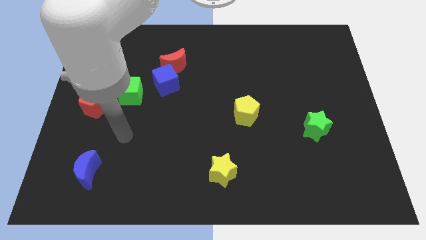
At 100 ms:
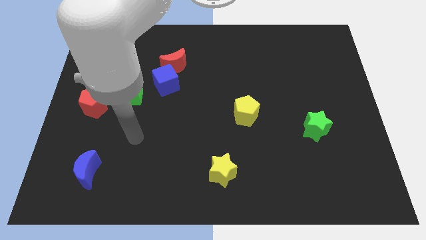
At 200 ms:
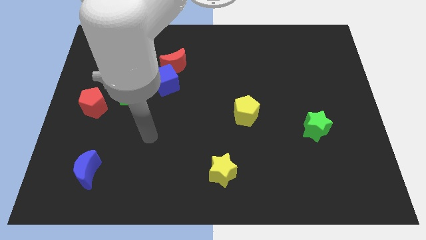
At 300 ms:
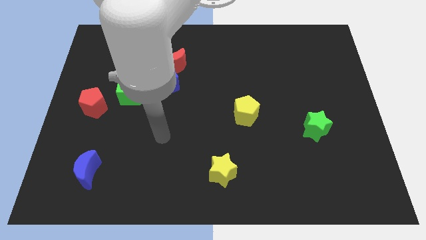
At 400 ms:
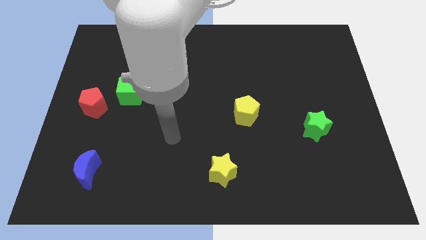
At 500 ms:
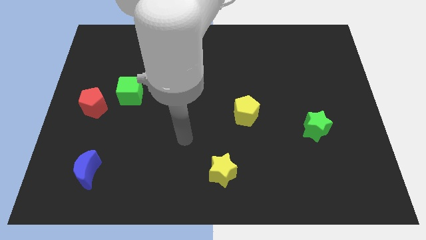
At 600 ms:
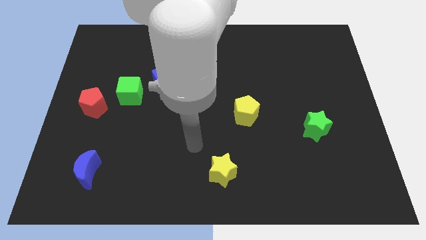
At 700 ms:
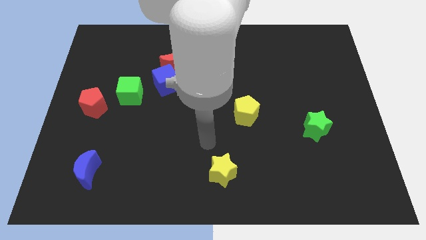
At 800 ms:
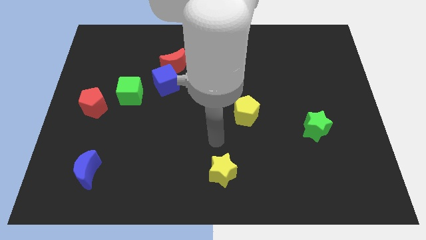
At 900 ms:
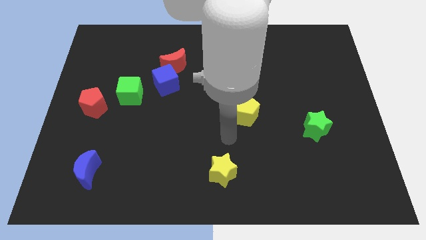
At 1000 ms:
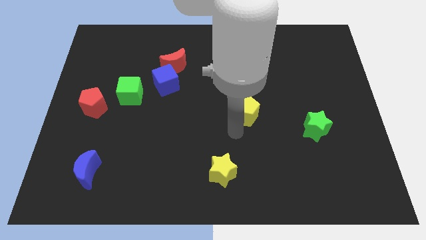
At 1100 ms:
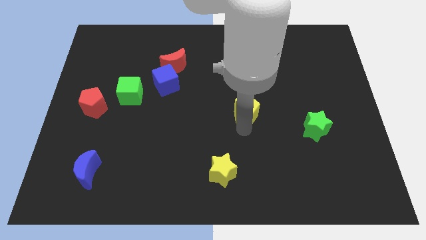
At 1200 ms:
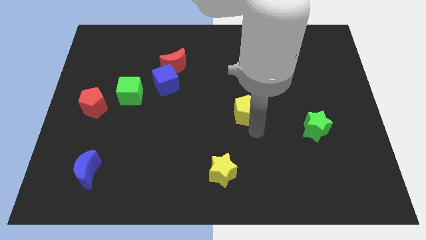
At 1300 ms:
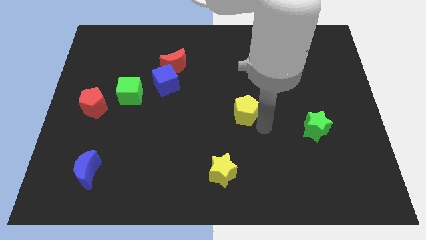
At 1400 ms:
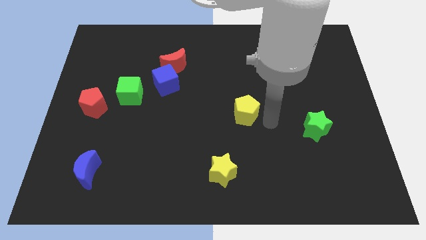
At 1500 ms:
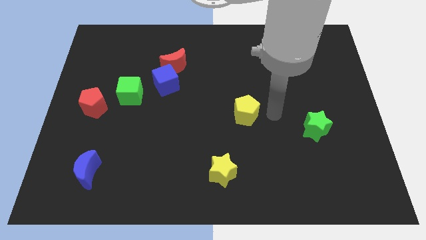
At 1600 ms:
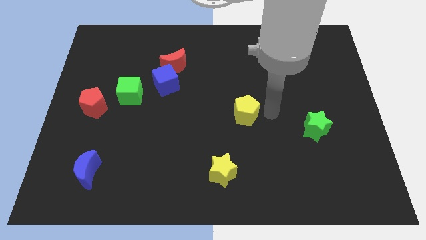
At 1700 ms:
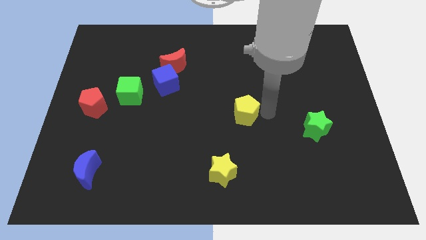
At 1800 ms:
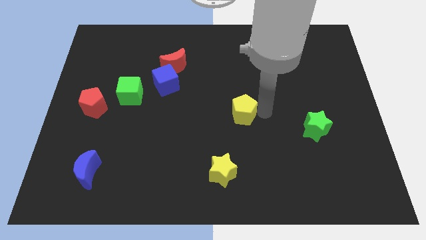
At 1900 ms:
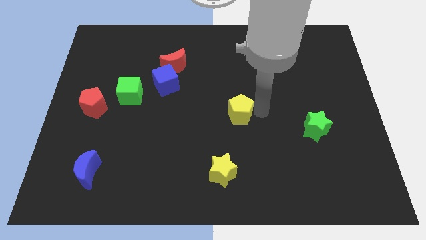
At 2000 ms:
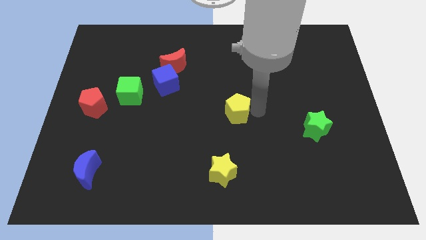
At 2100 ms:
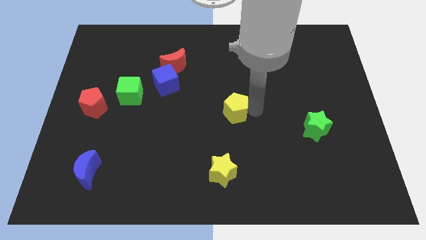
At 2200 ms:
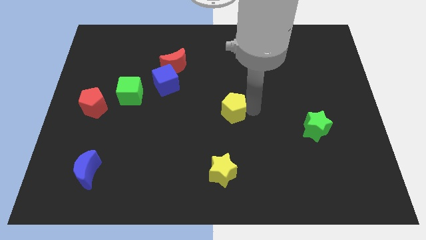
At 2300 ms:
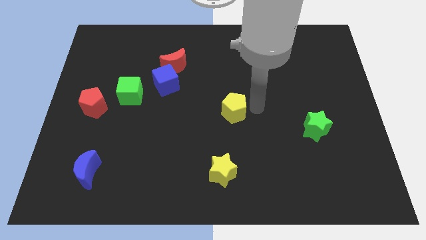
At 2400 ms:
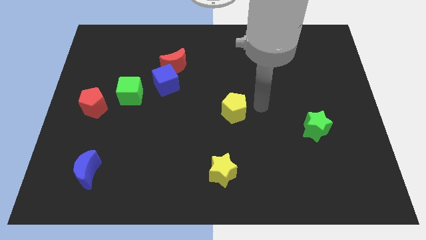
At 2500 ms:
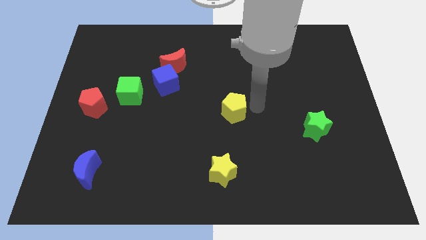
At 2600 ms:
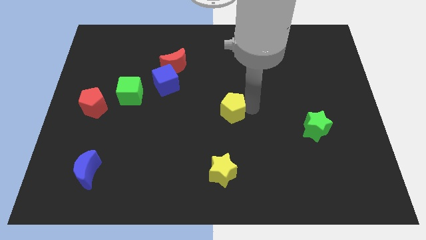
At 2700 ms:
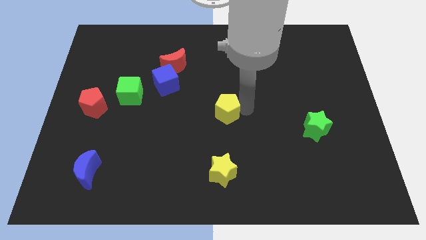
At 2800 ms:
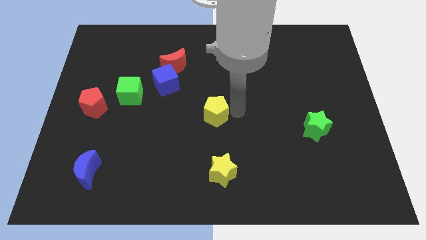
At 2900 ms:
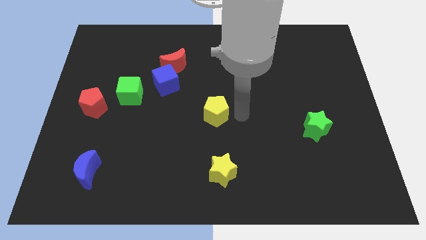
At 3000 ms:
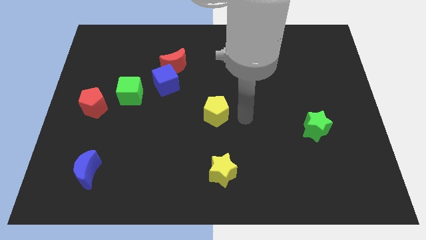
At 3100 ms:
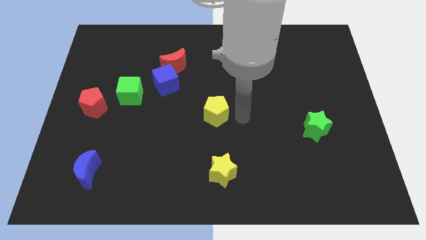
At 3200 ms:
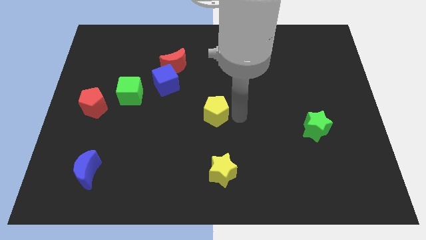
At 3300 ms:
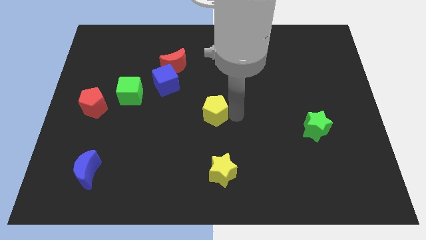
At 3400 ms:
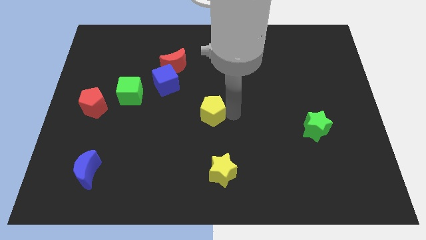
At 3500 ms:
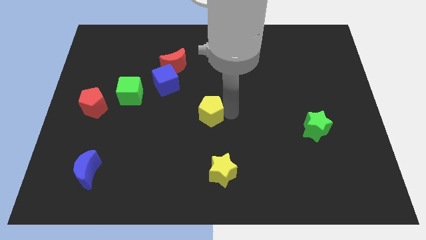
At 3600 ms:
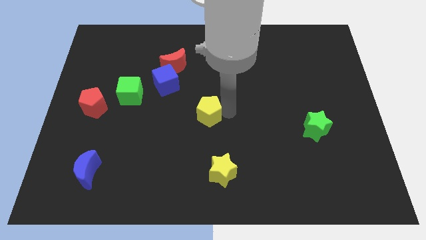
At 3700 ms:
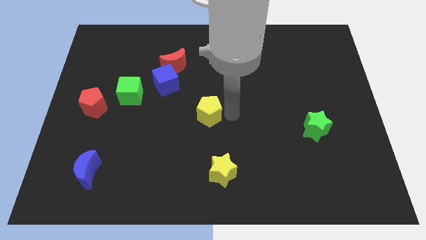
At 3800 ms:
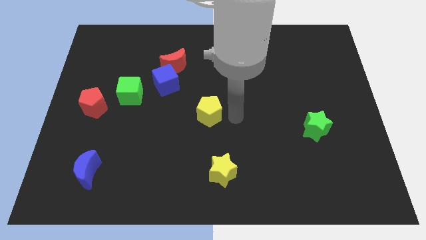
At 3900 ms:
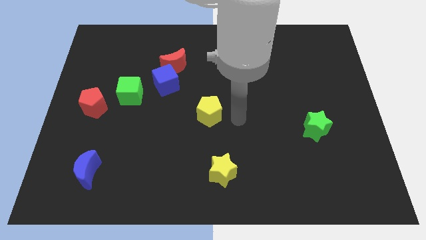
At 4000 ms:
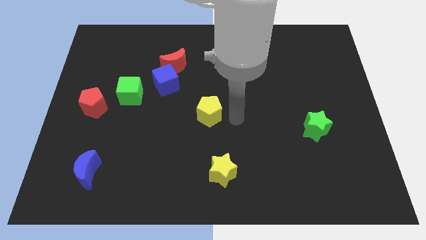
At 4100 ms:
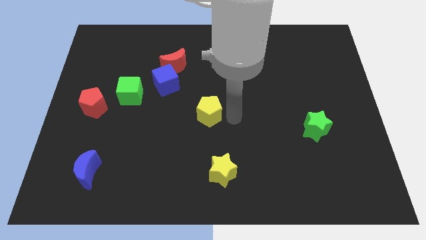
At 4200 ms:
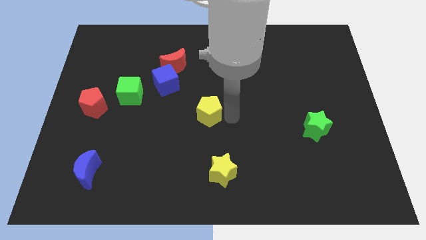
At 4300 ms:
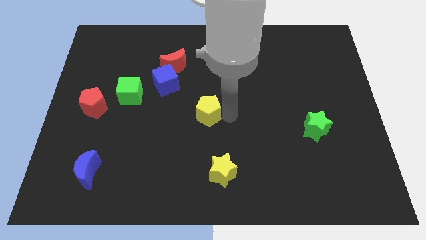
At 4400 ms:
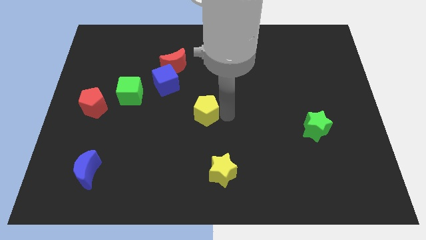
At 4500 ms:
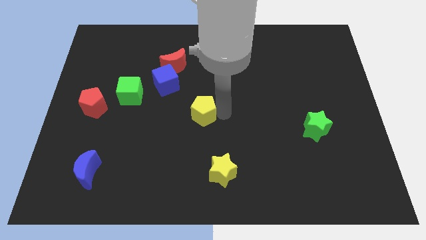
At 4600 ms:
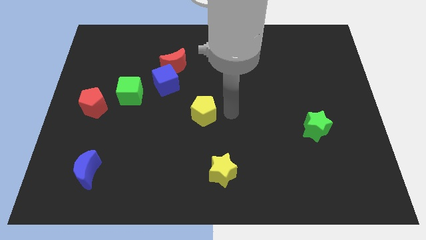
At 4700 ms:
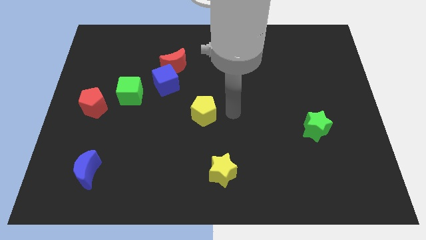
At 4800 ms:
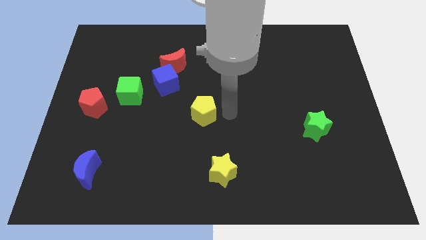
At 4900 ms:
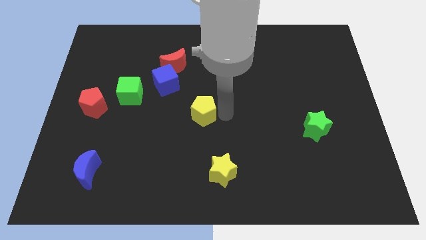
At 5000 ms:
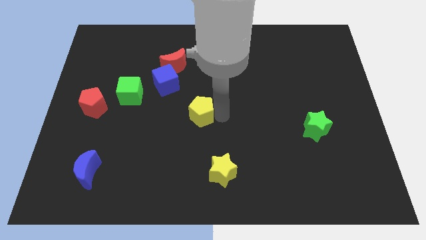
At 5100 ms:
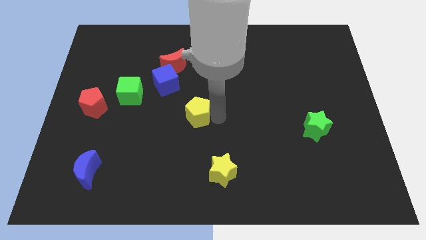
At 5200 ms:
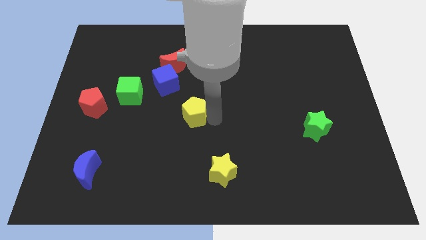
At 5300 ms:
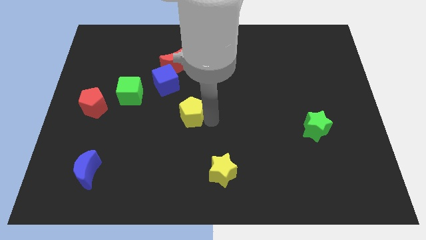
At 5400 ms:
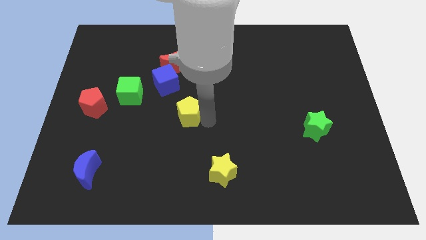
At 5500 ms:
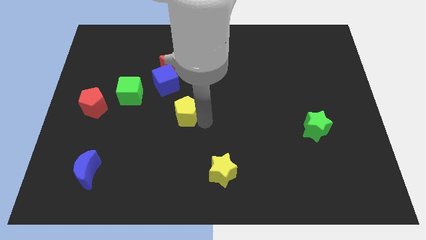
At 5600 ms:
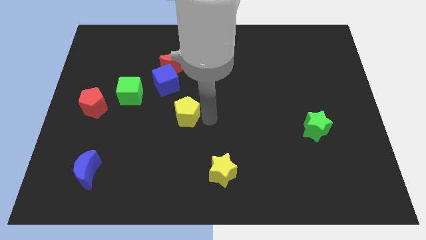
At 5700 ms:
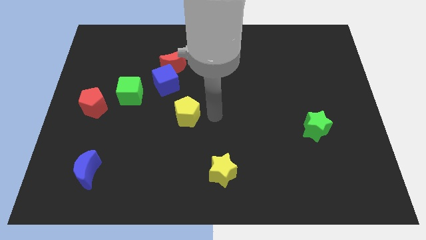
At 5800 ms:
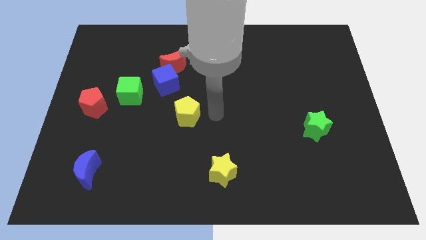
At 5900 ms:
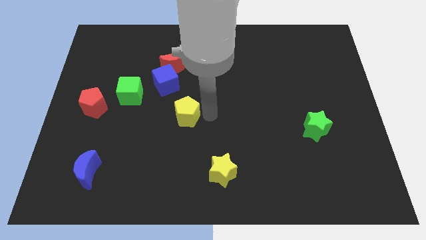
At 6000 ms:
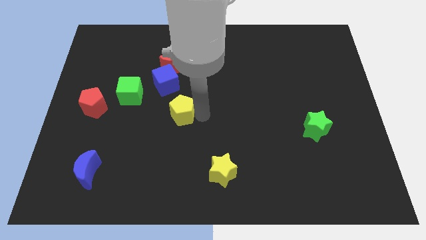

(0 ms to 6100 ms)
put the yellow pentagon below the blue cube

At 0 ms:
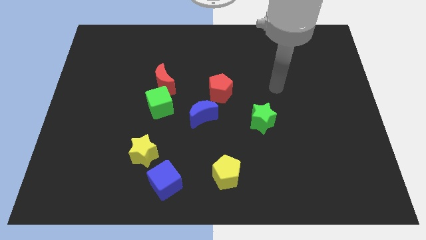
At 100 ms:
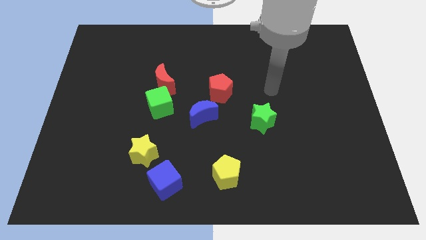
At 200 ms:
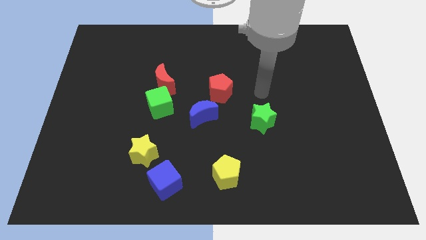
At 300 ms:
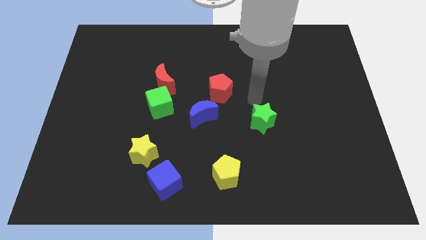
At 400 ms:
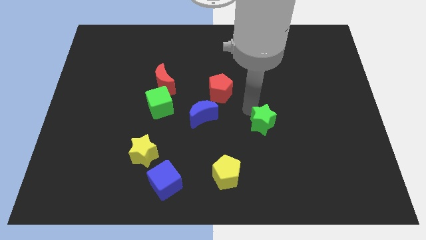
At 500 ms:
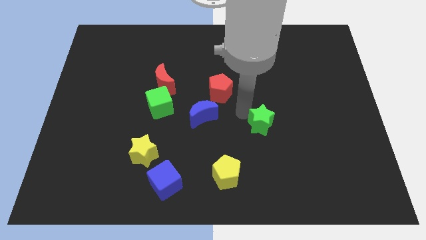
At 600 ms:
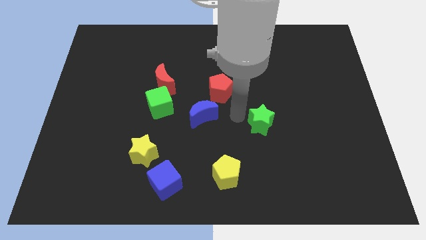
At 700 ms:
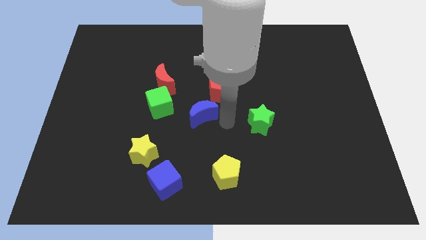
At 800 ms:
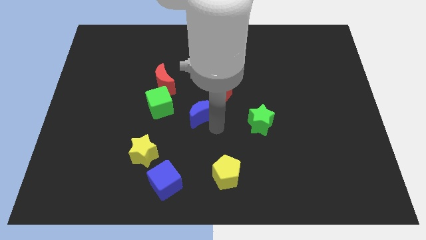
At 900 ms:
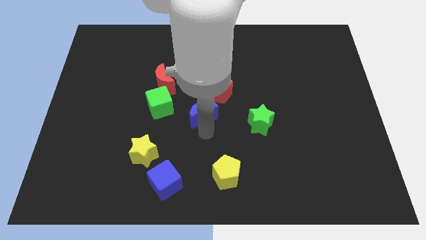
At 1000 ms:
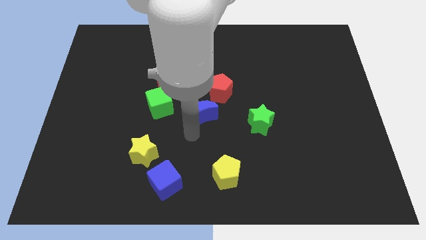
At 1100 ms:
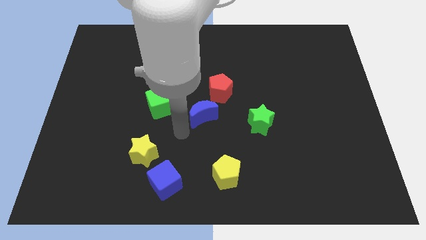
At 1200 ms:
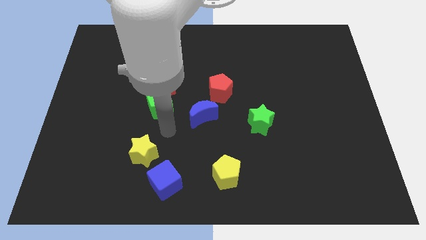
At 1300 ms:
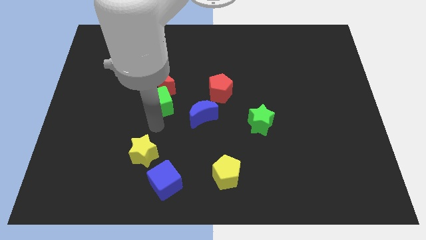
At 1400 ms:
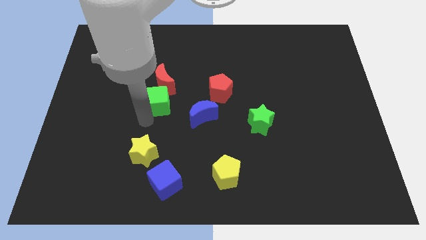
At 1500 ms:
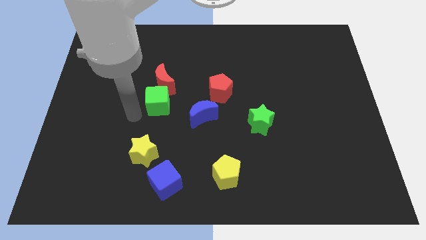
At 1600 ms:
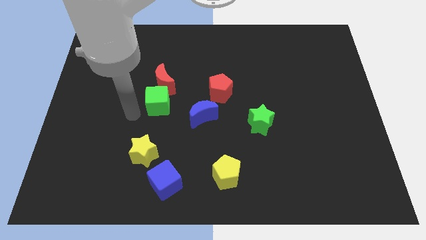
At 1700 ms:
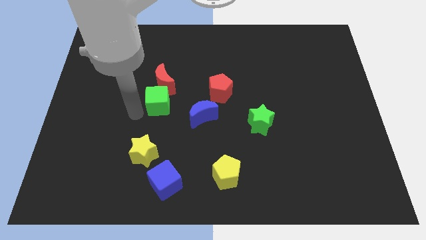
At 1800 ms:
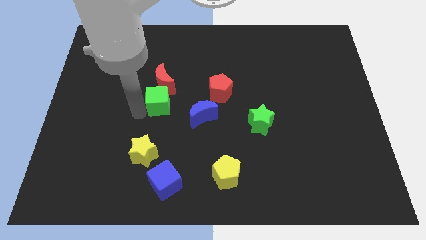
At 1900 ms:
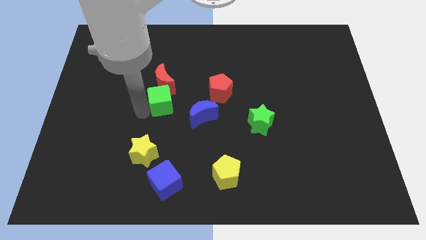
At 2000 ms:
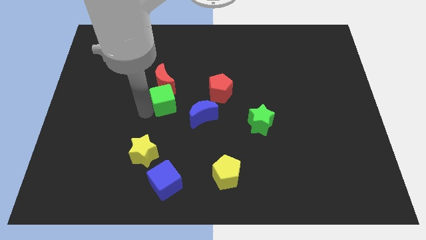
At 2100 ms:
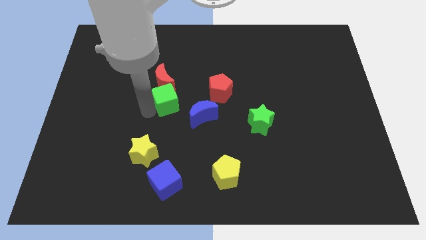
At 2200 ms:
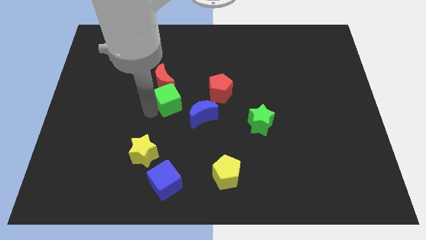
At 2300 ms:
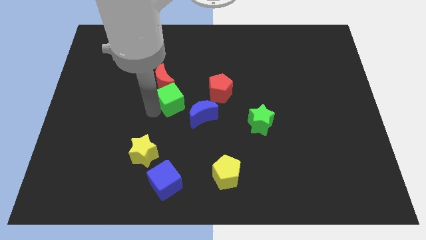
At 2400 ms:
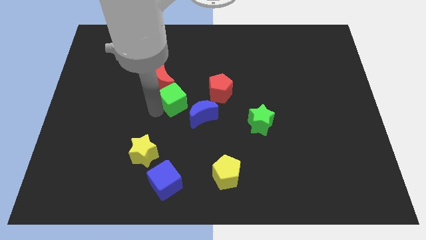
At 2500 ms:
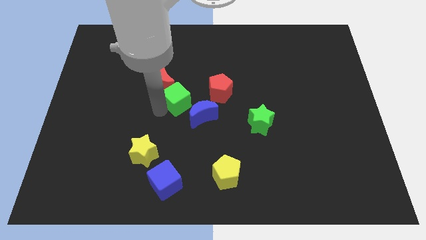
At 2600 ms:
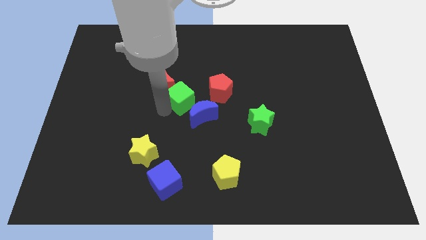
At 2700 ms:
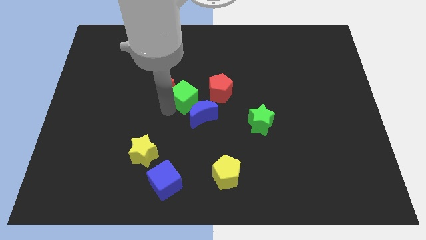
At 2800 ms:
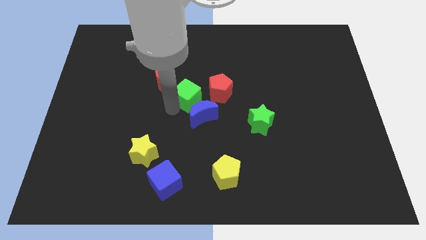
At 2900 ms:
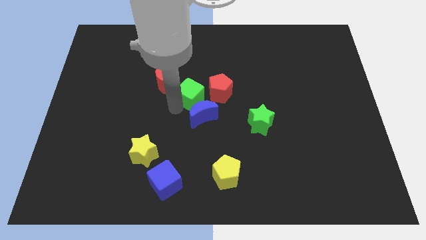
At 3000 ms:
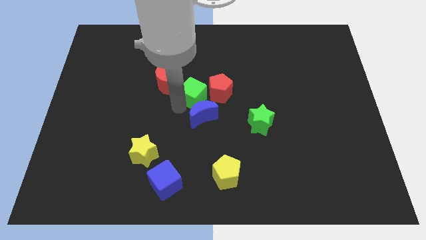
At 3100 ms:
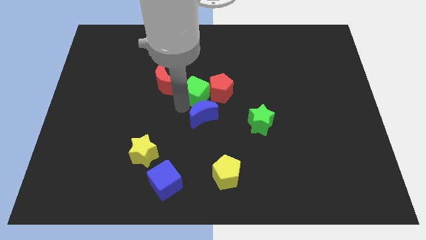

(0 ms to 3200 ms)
move the green cube to the top left of the red pentagon
